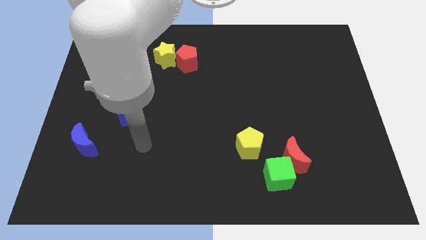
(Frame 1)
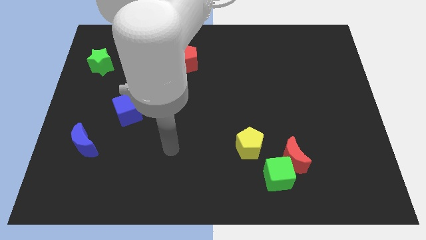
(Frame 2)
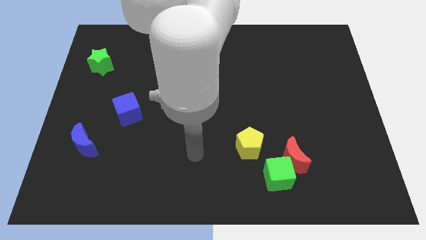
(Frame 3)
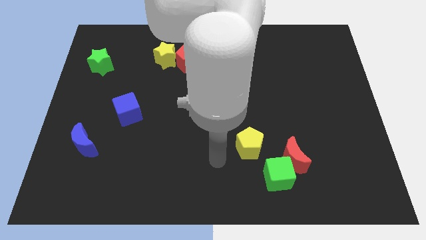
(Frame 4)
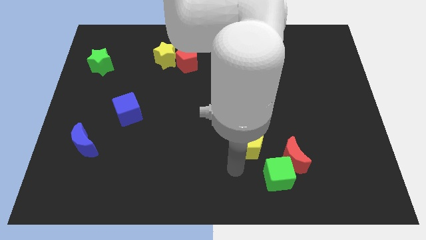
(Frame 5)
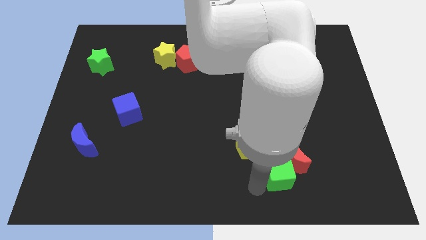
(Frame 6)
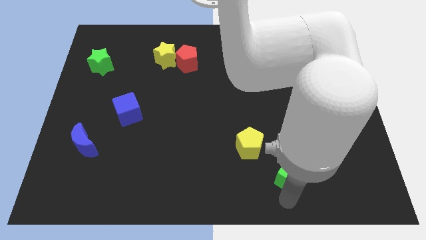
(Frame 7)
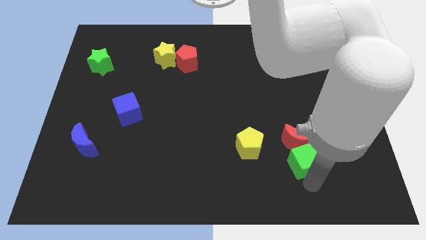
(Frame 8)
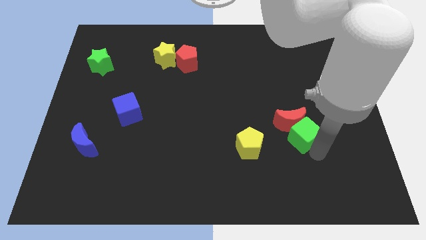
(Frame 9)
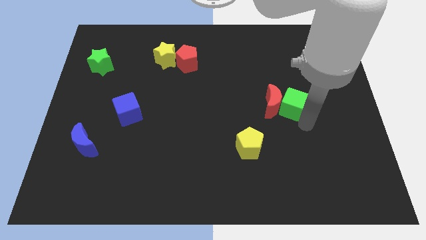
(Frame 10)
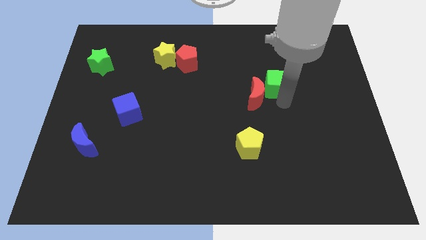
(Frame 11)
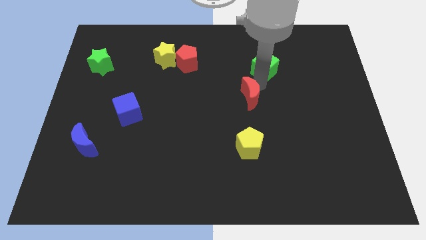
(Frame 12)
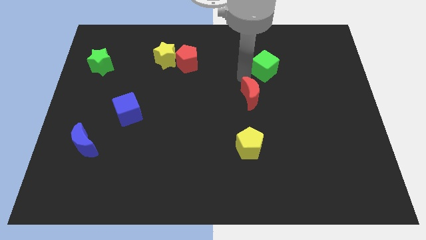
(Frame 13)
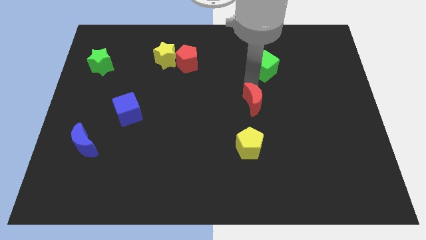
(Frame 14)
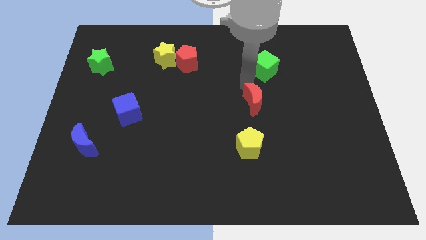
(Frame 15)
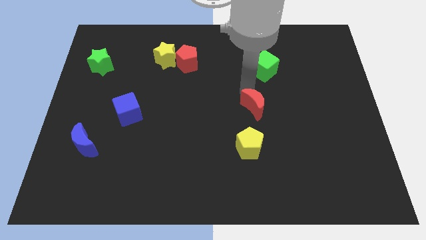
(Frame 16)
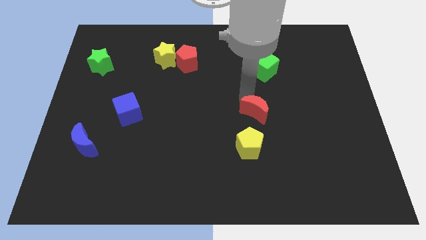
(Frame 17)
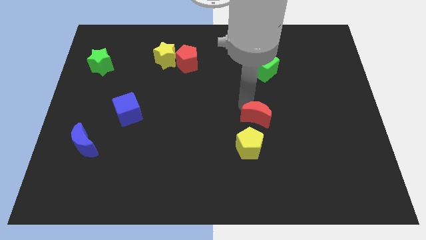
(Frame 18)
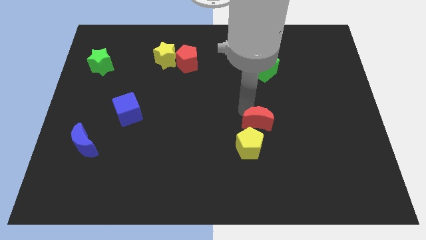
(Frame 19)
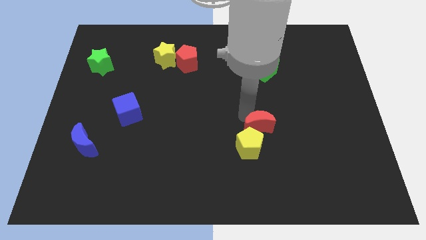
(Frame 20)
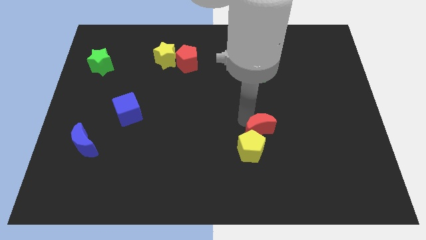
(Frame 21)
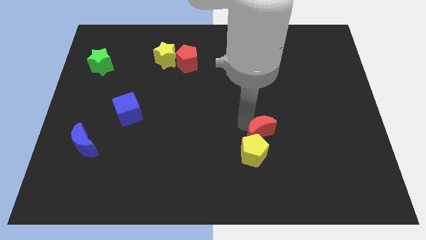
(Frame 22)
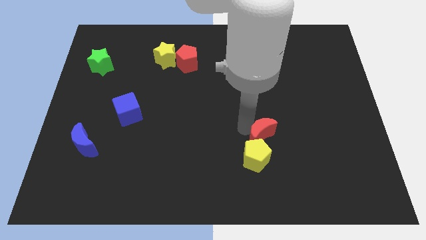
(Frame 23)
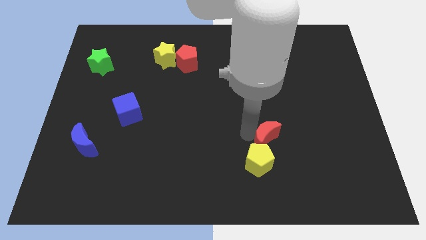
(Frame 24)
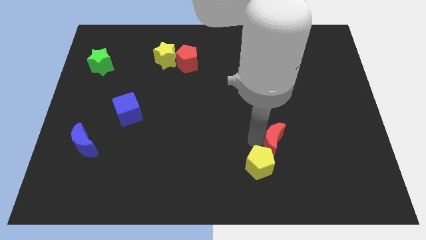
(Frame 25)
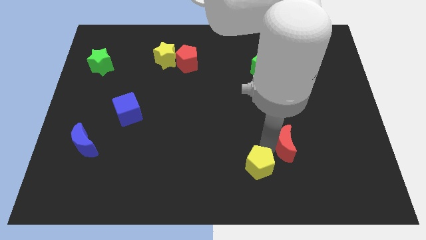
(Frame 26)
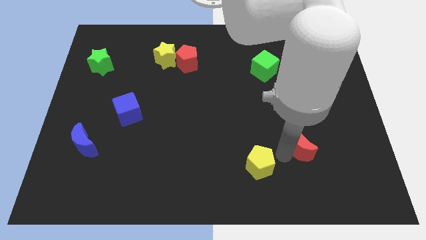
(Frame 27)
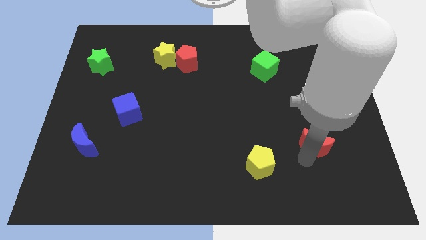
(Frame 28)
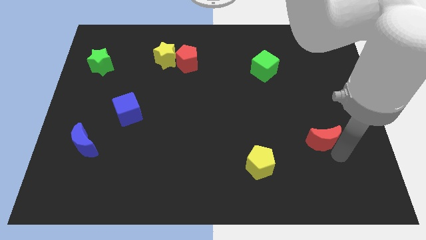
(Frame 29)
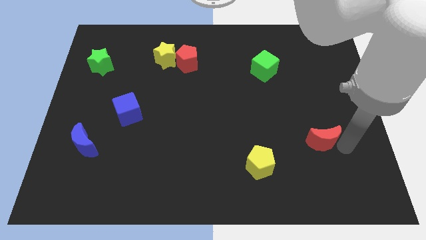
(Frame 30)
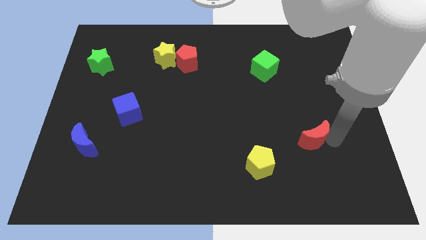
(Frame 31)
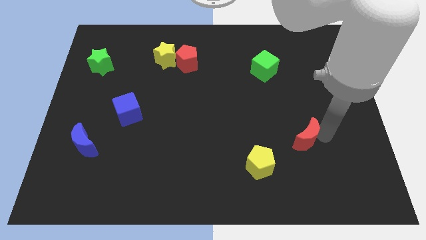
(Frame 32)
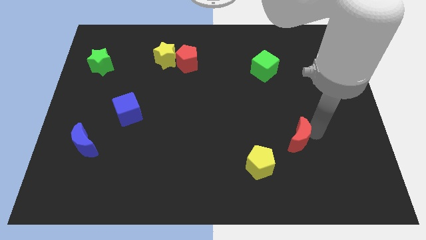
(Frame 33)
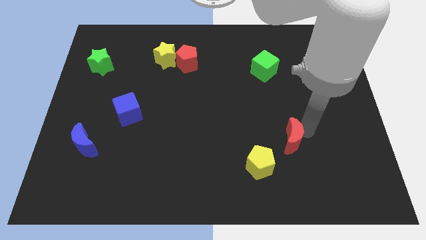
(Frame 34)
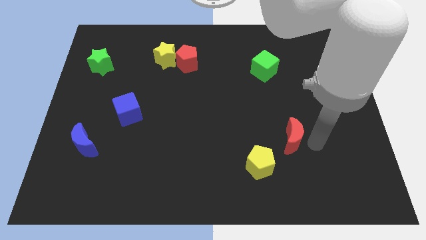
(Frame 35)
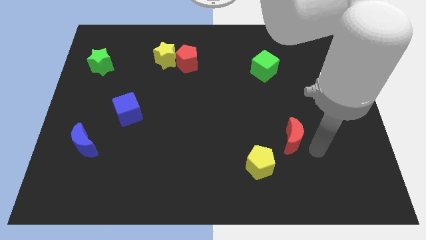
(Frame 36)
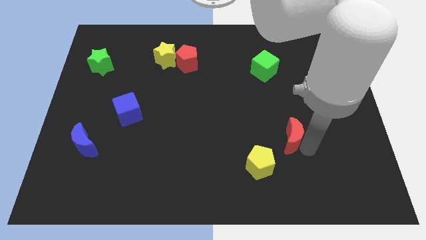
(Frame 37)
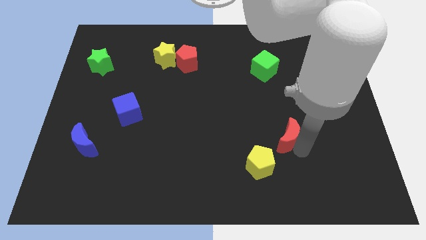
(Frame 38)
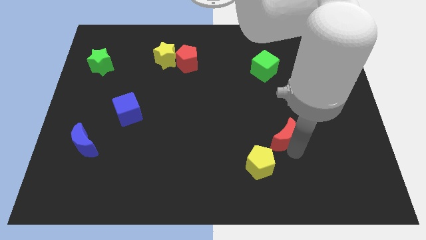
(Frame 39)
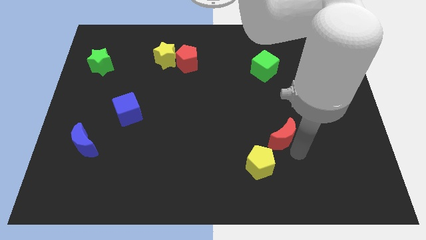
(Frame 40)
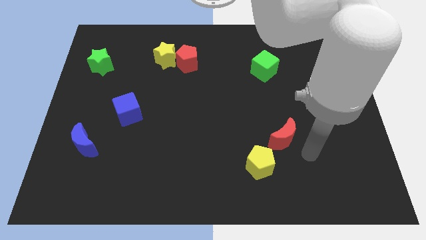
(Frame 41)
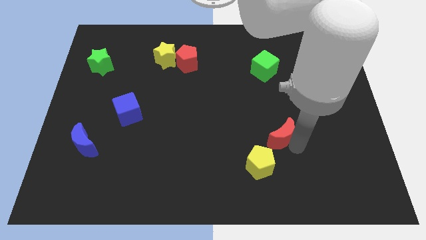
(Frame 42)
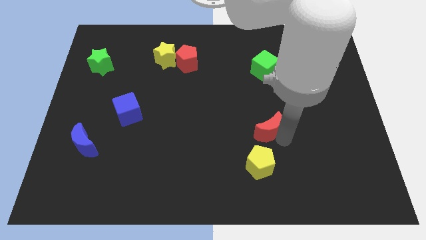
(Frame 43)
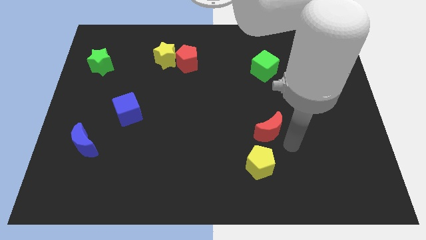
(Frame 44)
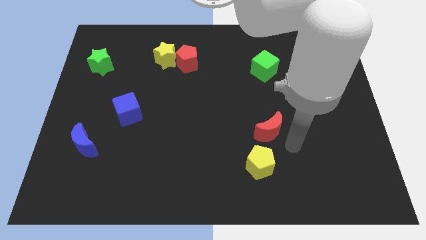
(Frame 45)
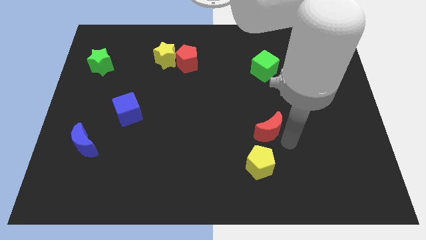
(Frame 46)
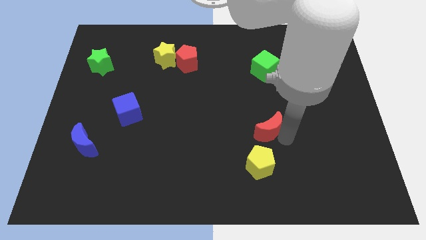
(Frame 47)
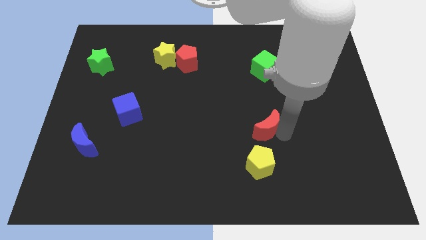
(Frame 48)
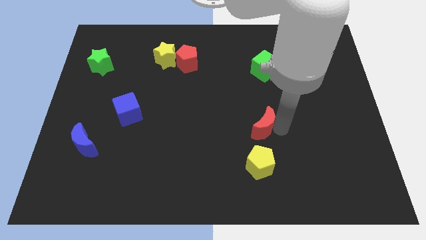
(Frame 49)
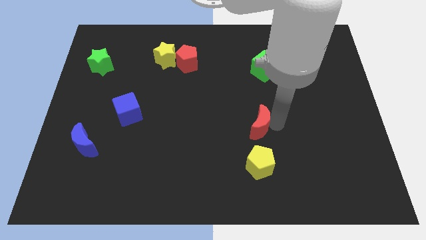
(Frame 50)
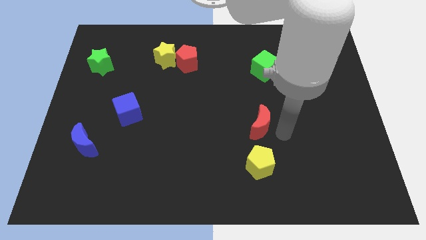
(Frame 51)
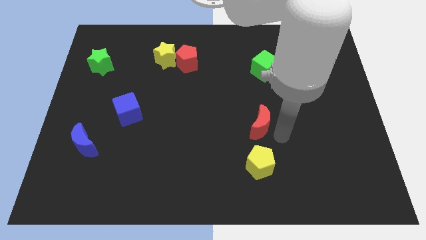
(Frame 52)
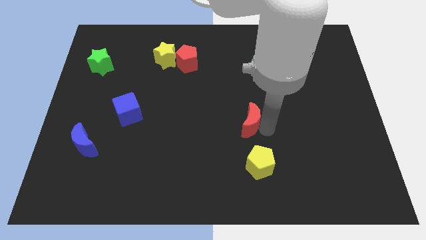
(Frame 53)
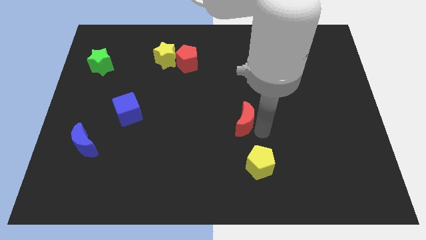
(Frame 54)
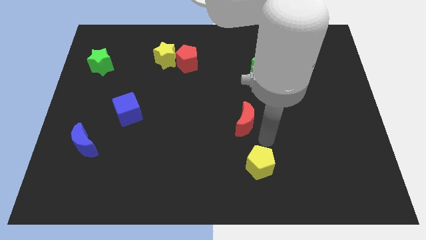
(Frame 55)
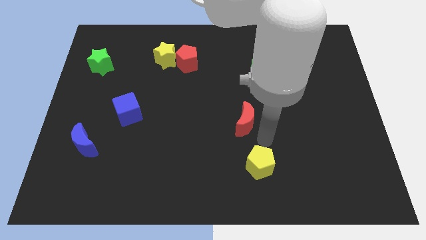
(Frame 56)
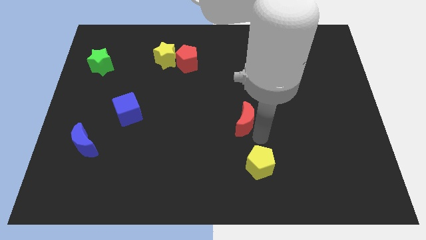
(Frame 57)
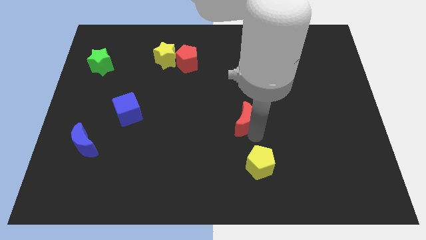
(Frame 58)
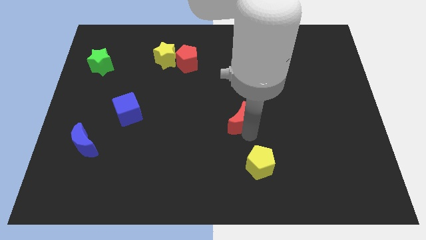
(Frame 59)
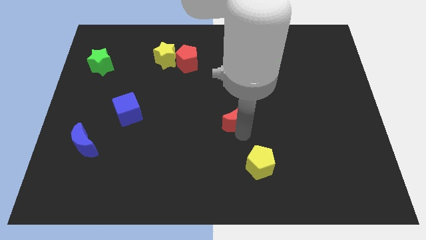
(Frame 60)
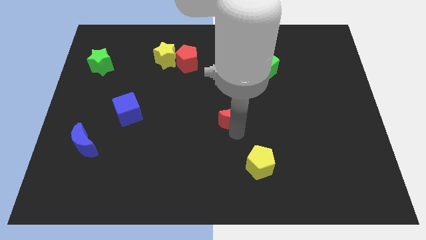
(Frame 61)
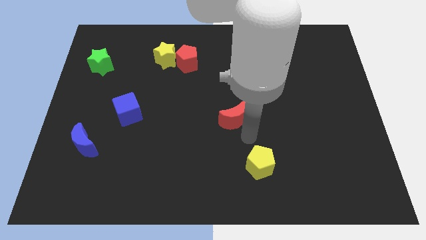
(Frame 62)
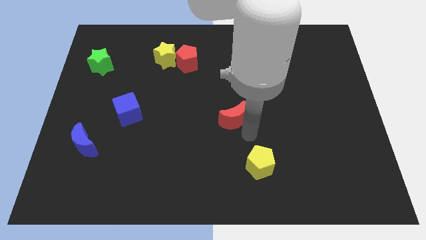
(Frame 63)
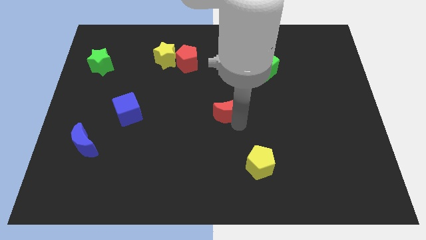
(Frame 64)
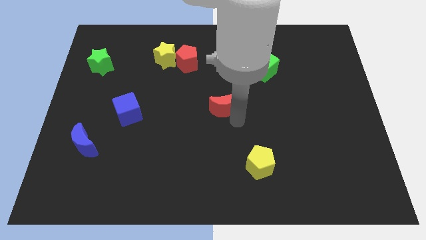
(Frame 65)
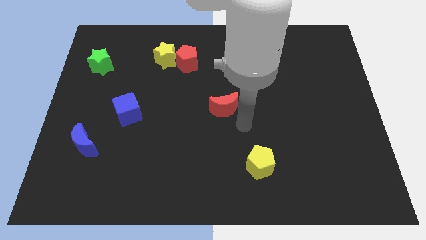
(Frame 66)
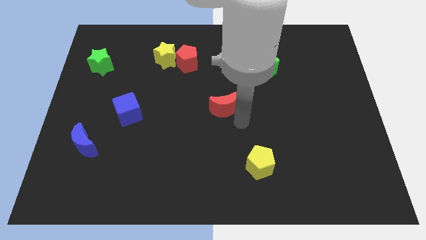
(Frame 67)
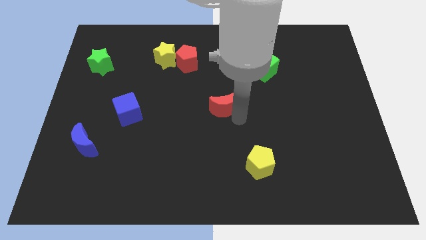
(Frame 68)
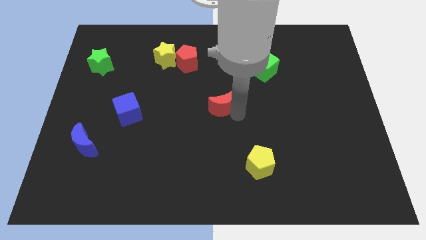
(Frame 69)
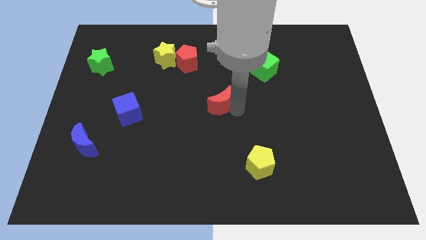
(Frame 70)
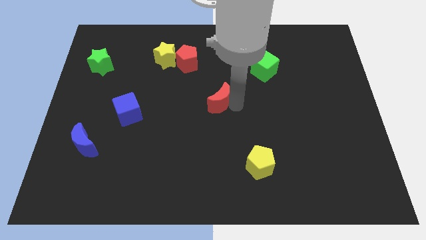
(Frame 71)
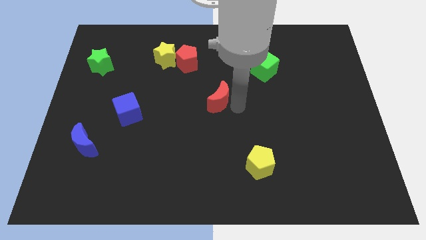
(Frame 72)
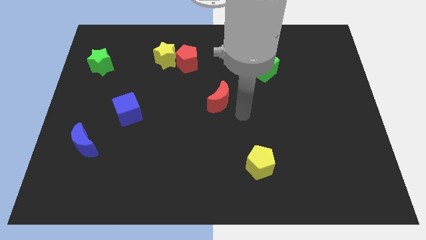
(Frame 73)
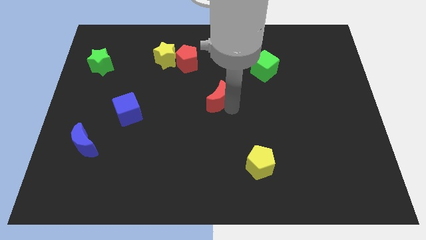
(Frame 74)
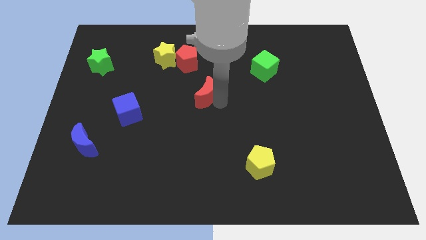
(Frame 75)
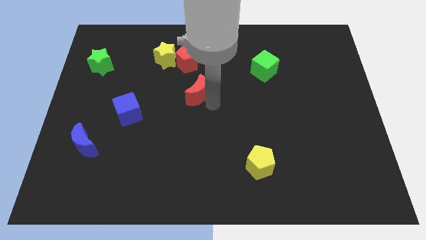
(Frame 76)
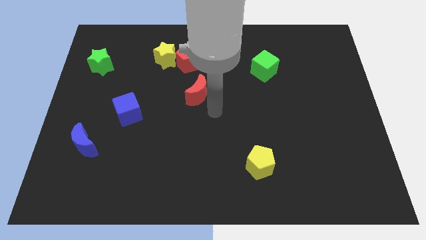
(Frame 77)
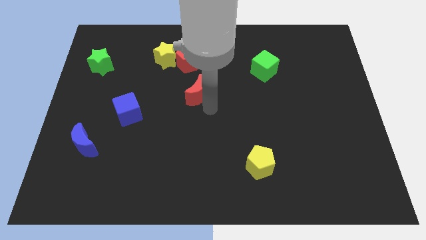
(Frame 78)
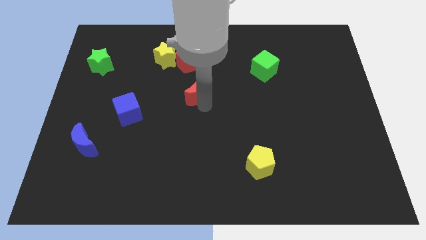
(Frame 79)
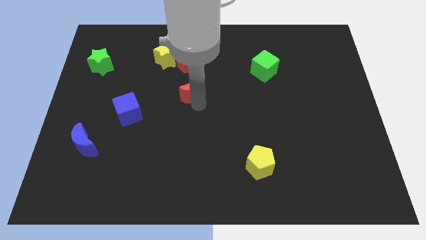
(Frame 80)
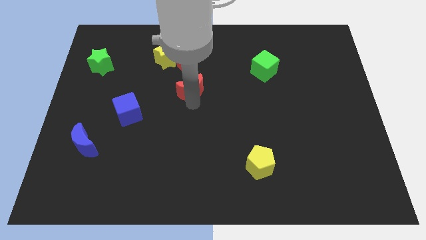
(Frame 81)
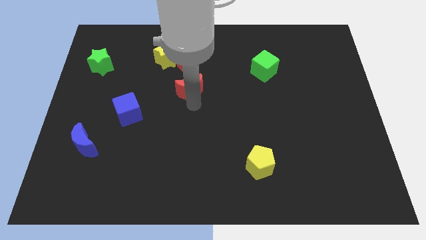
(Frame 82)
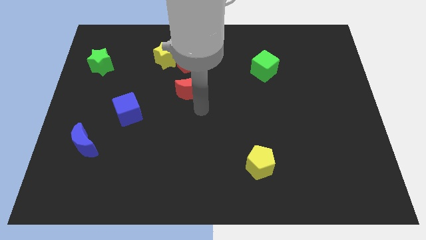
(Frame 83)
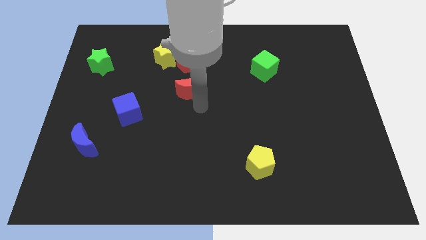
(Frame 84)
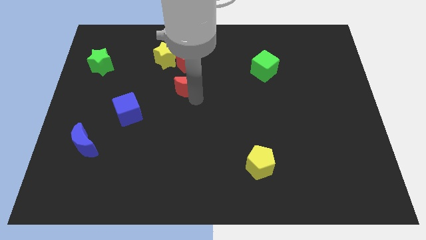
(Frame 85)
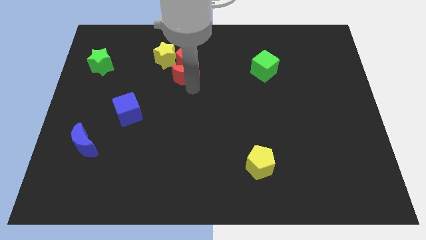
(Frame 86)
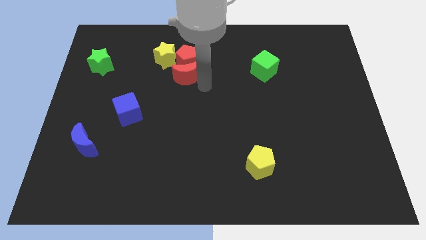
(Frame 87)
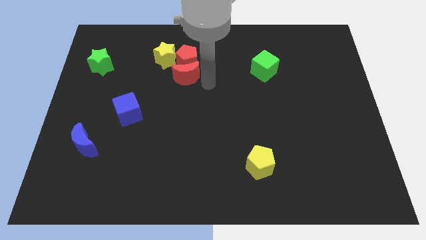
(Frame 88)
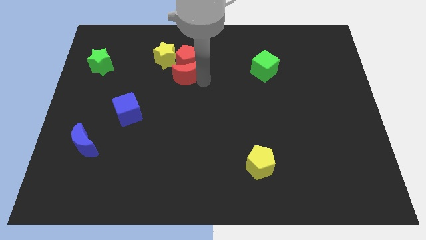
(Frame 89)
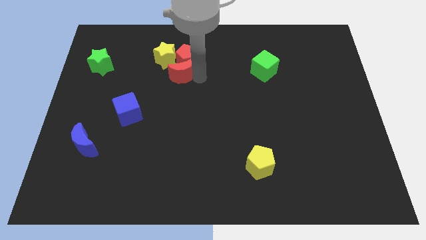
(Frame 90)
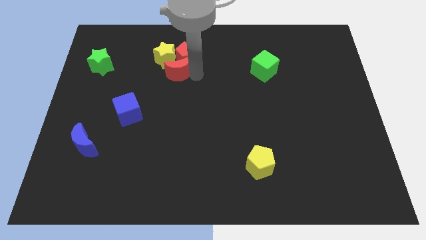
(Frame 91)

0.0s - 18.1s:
push the red moon towards the yellow star
